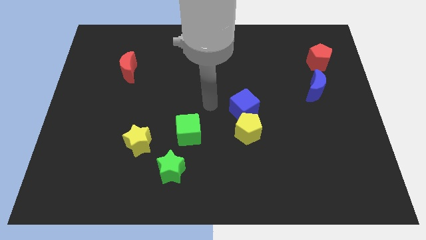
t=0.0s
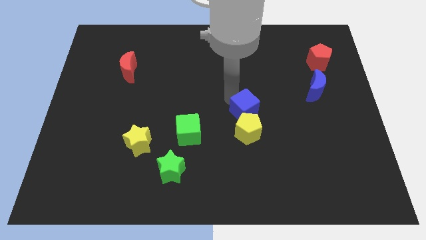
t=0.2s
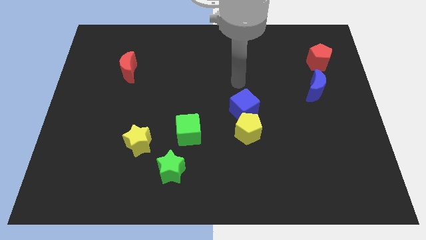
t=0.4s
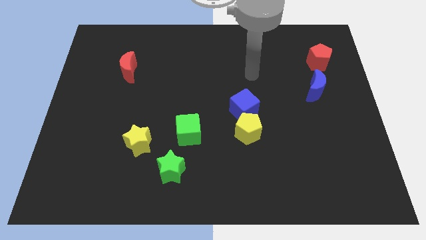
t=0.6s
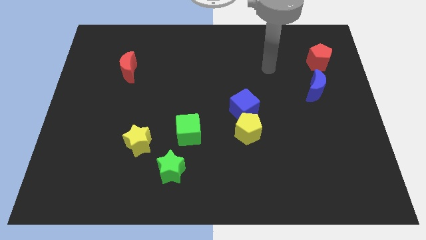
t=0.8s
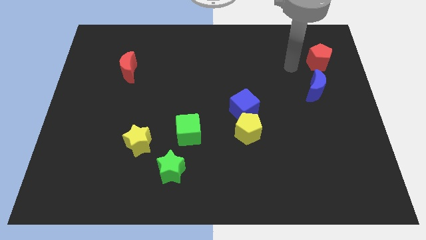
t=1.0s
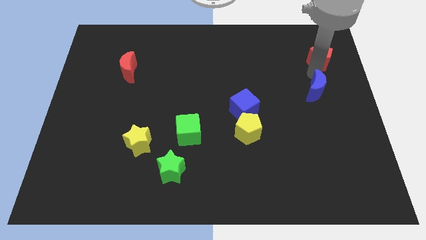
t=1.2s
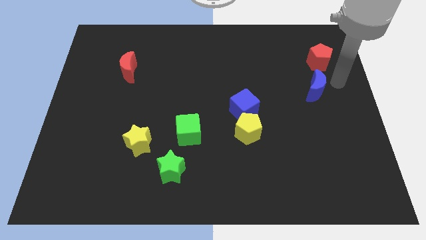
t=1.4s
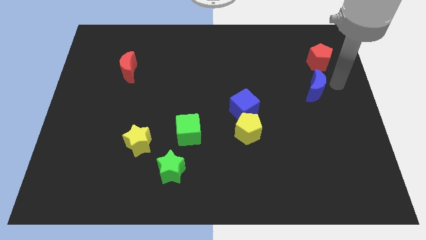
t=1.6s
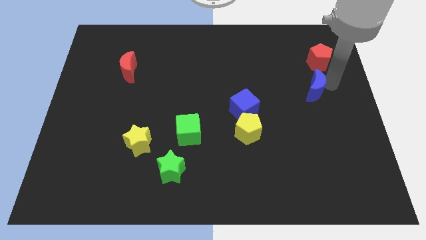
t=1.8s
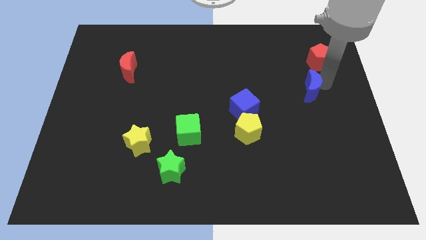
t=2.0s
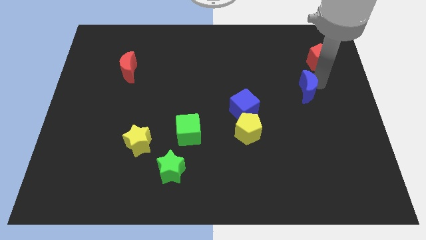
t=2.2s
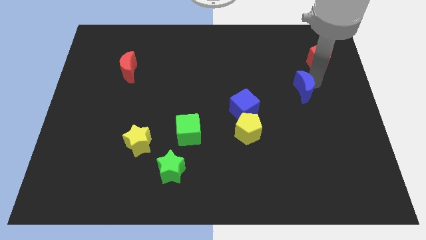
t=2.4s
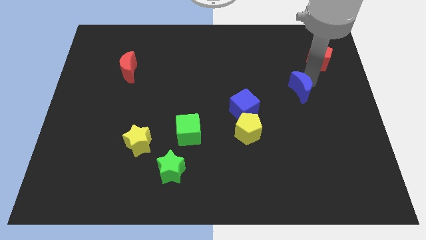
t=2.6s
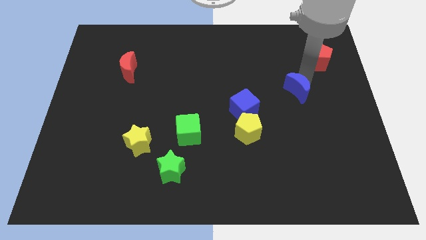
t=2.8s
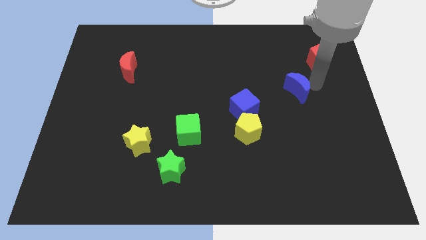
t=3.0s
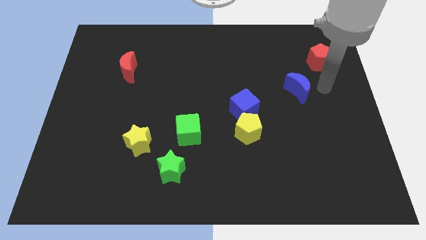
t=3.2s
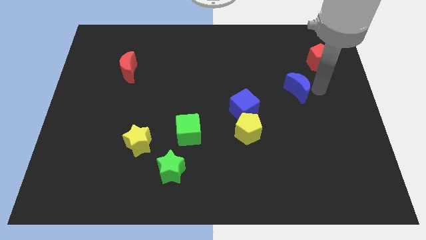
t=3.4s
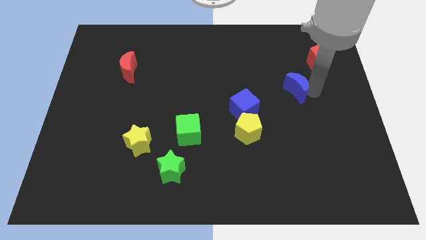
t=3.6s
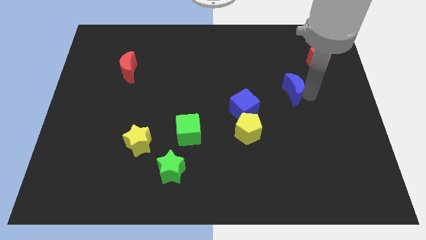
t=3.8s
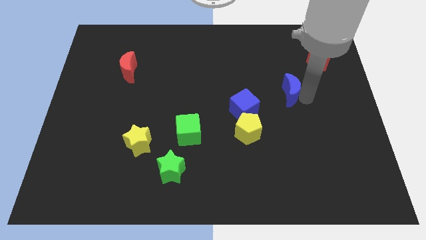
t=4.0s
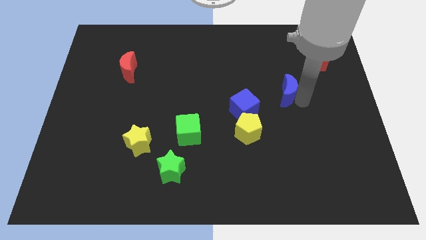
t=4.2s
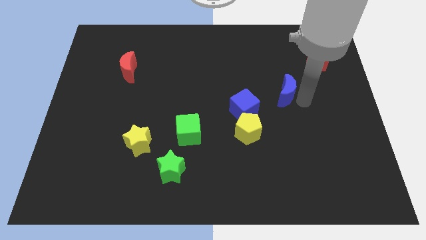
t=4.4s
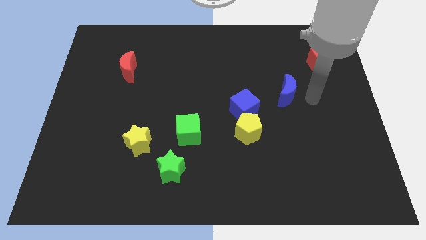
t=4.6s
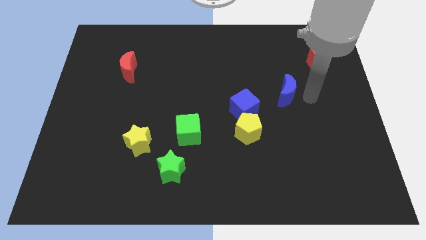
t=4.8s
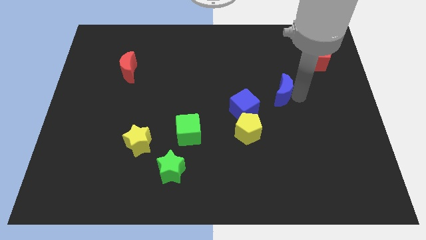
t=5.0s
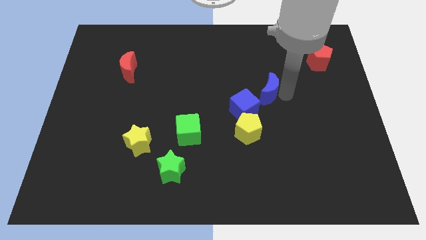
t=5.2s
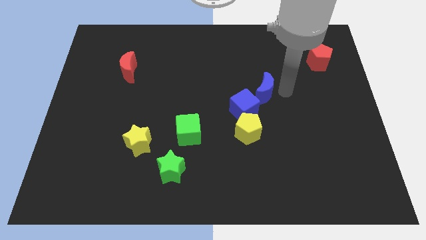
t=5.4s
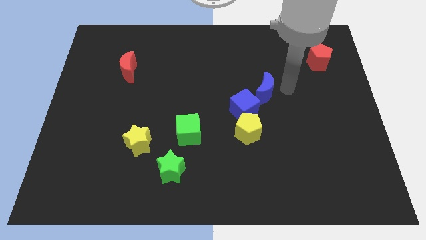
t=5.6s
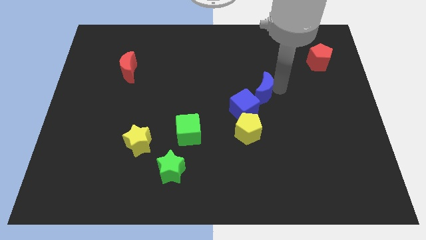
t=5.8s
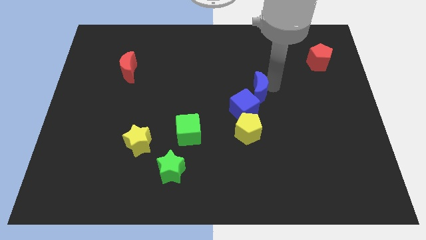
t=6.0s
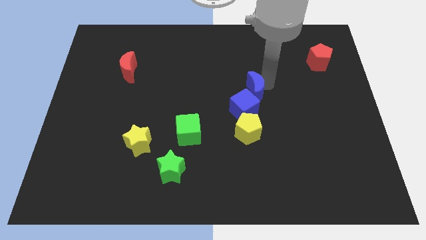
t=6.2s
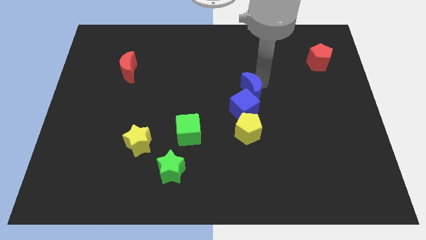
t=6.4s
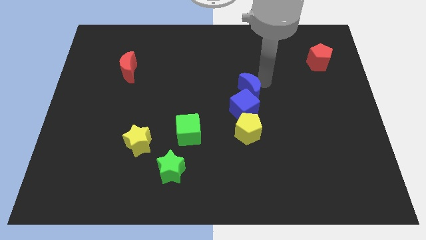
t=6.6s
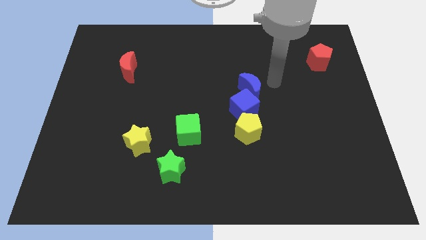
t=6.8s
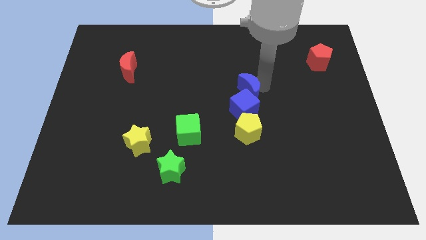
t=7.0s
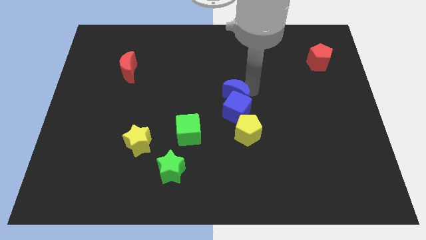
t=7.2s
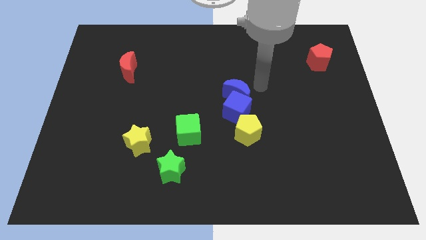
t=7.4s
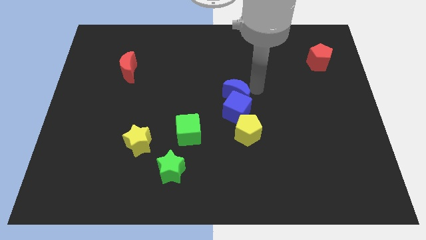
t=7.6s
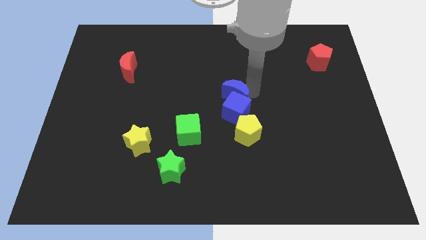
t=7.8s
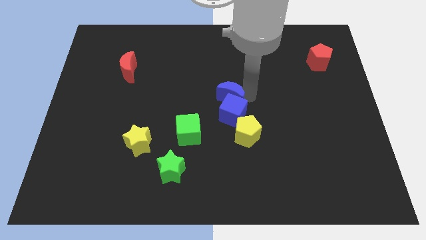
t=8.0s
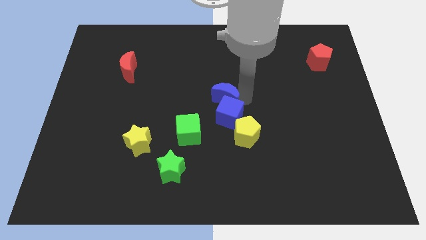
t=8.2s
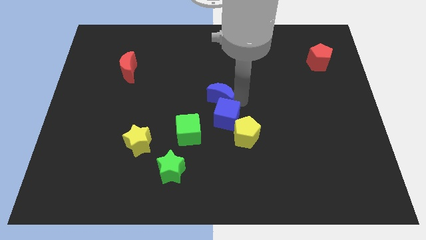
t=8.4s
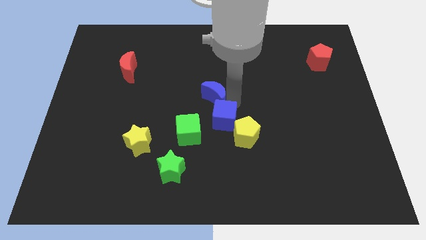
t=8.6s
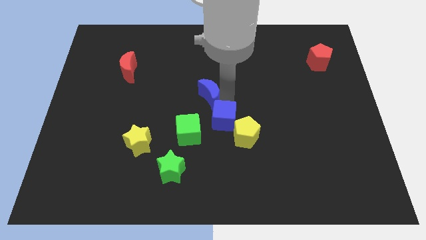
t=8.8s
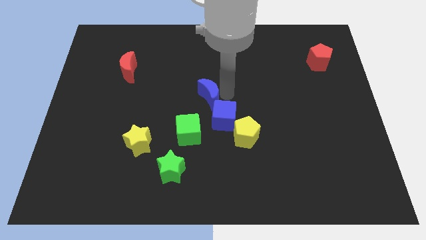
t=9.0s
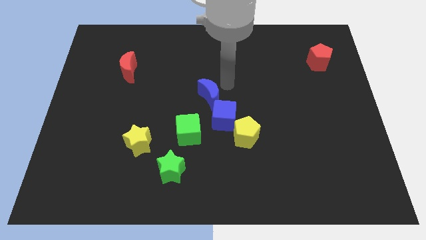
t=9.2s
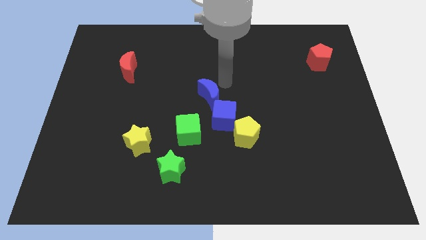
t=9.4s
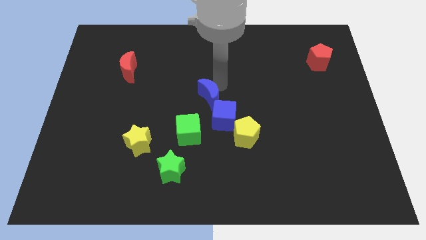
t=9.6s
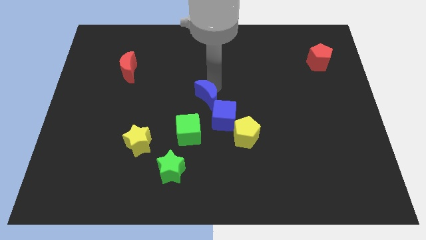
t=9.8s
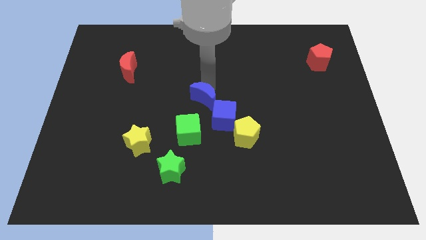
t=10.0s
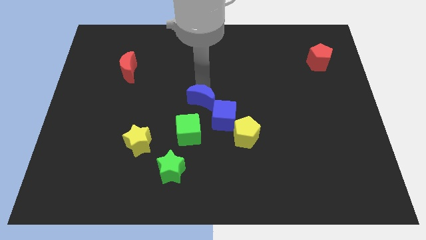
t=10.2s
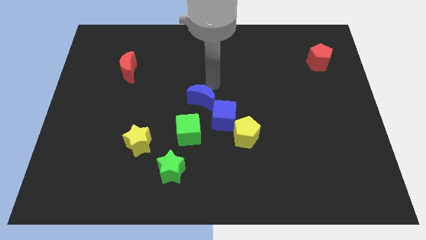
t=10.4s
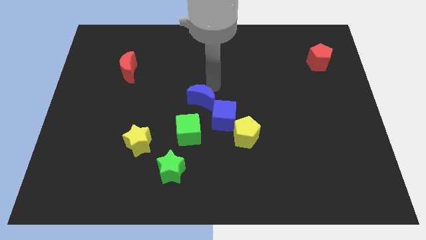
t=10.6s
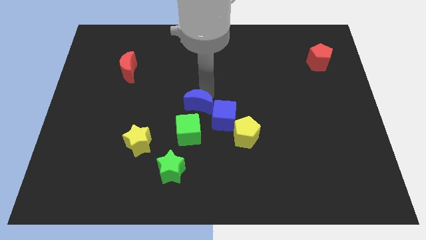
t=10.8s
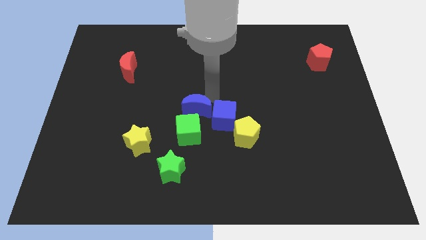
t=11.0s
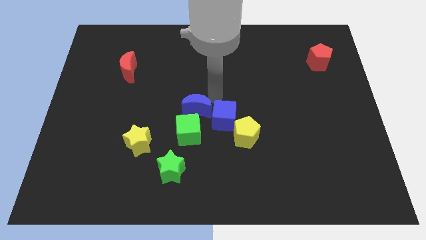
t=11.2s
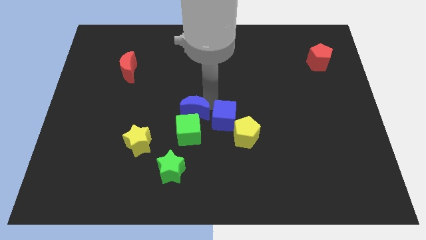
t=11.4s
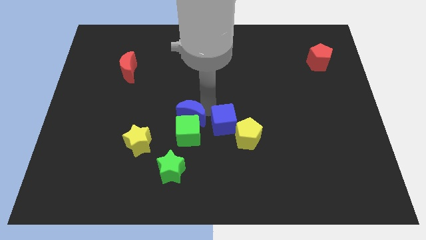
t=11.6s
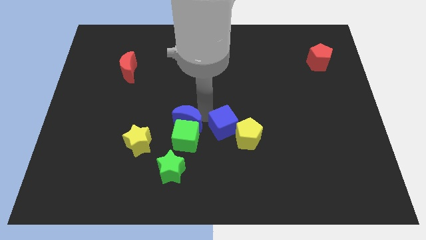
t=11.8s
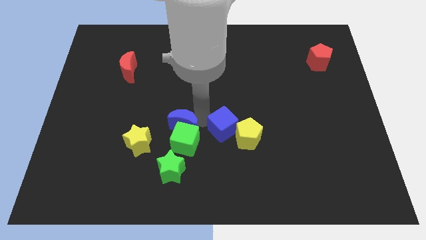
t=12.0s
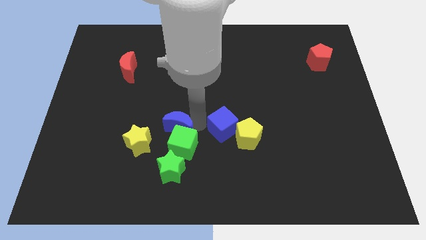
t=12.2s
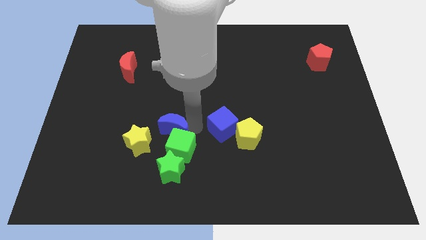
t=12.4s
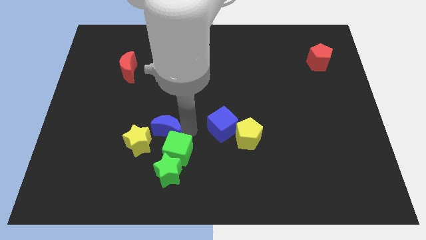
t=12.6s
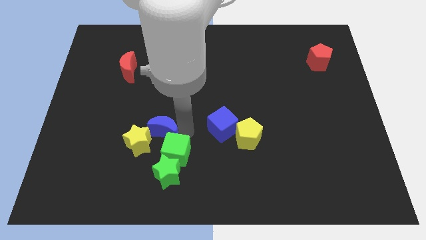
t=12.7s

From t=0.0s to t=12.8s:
move the blue moon to the yellow star
